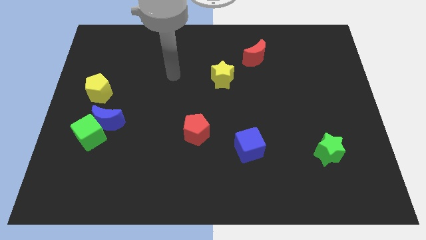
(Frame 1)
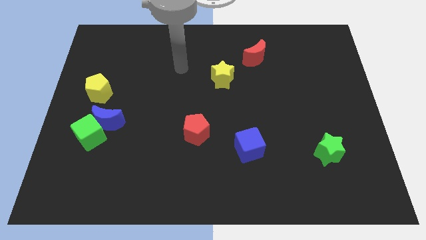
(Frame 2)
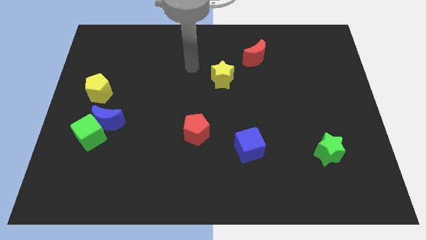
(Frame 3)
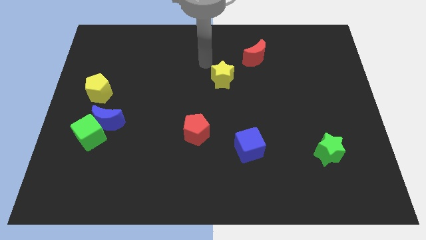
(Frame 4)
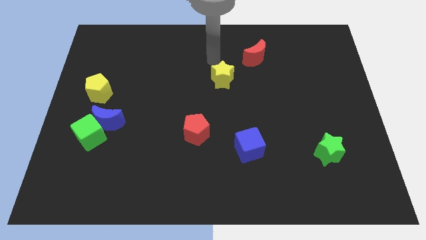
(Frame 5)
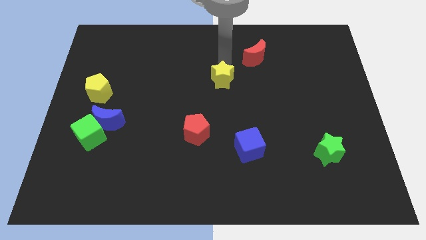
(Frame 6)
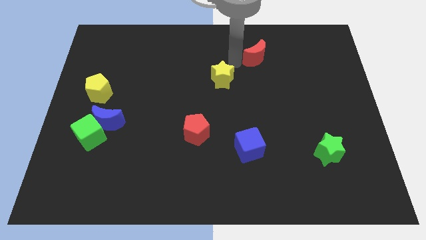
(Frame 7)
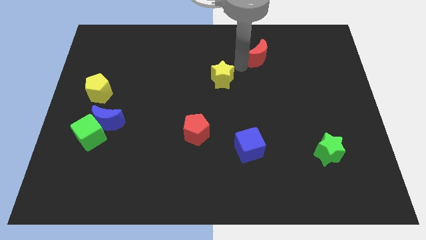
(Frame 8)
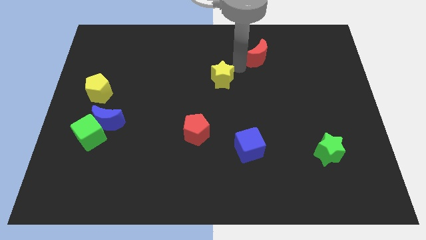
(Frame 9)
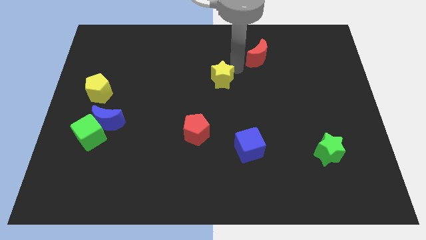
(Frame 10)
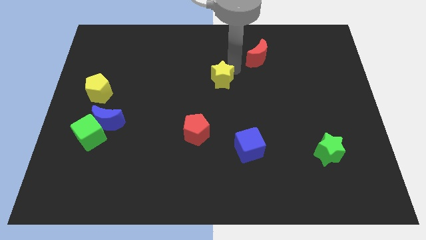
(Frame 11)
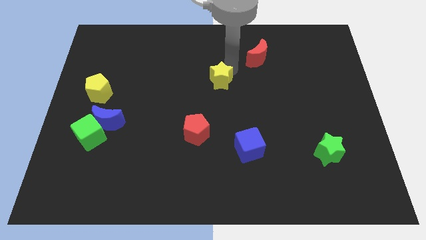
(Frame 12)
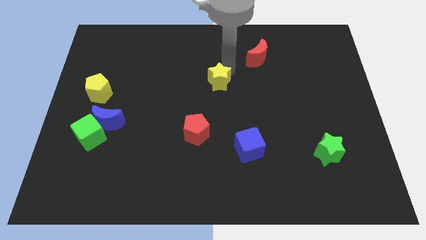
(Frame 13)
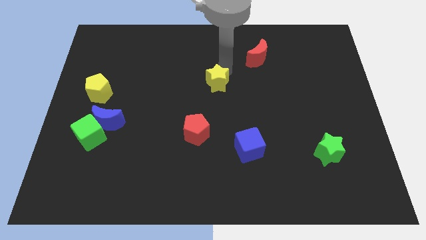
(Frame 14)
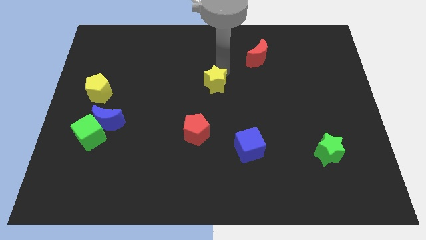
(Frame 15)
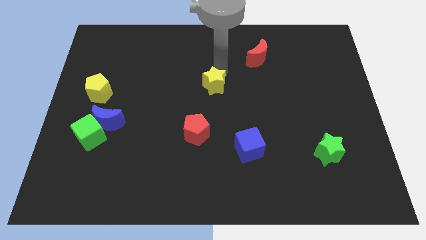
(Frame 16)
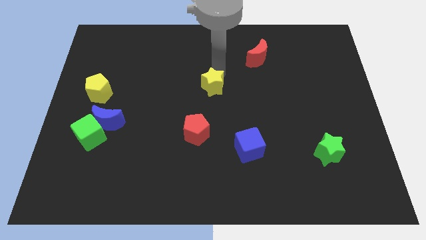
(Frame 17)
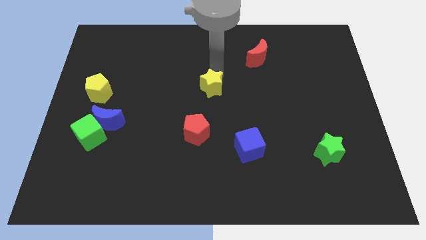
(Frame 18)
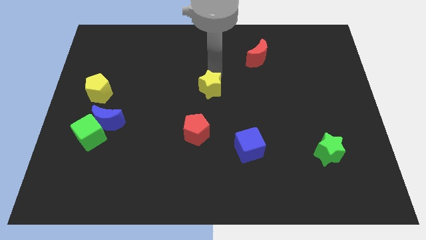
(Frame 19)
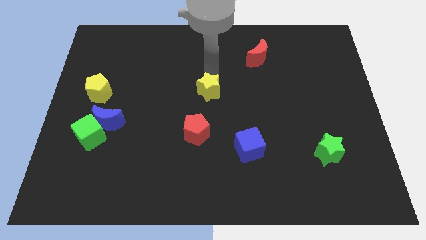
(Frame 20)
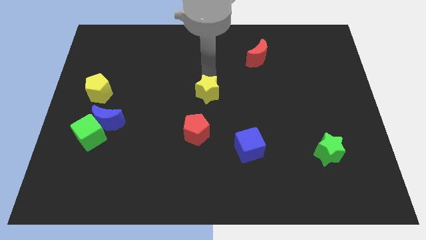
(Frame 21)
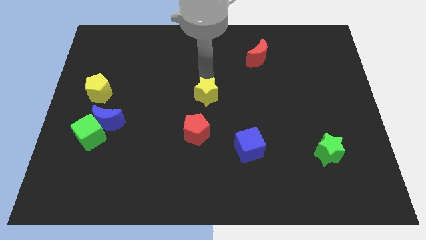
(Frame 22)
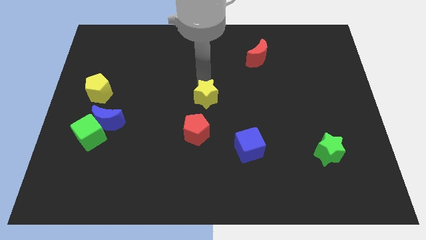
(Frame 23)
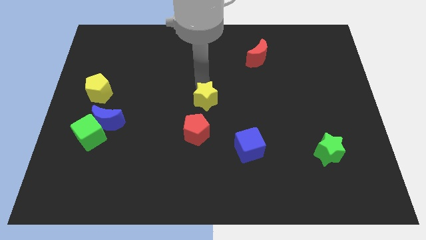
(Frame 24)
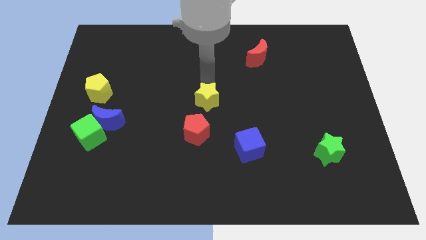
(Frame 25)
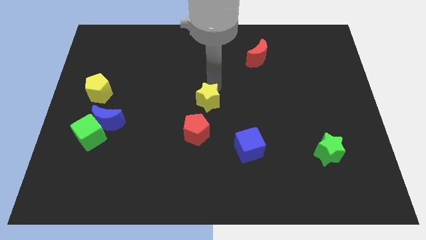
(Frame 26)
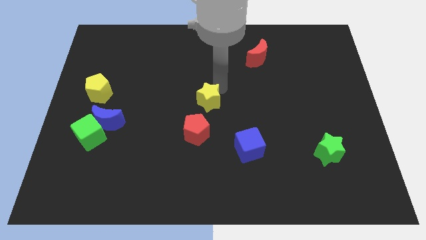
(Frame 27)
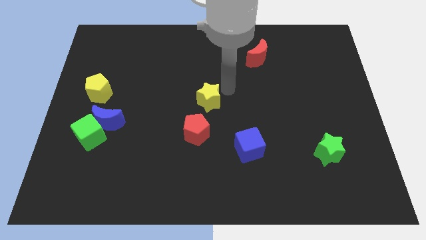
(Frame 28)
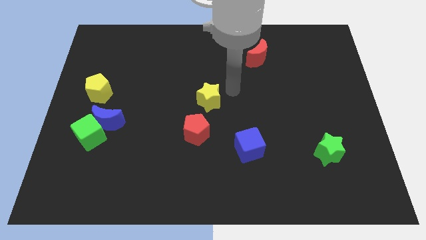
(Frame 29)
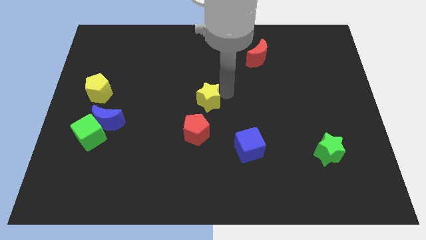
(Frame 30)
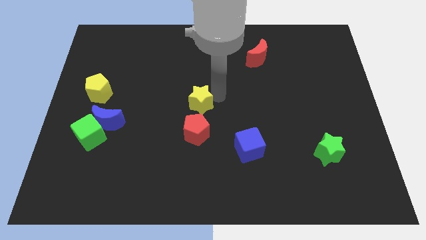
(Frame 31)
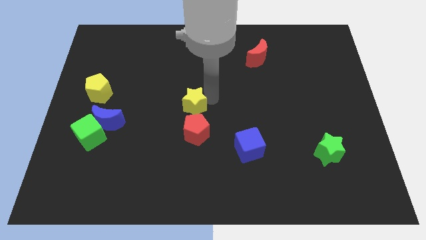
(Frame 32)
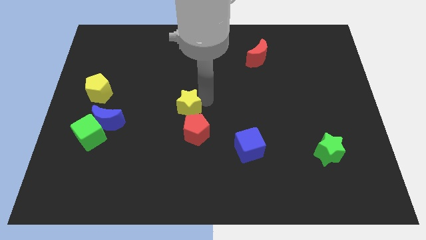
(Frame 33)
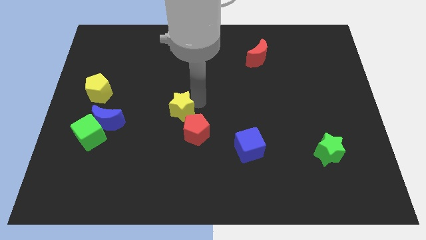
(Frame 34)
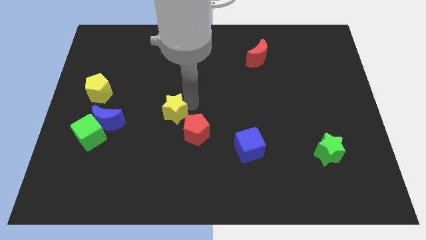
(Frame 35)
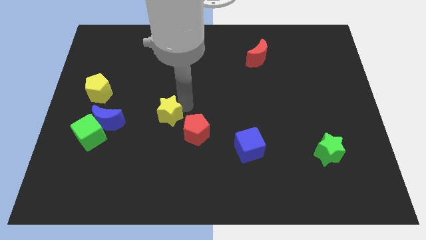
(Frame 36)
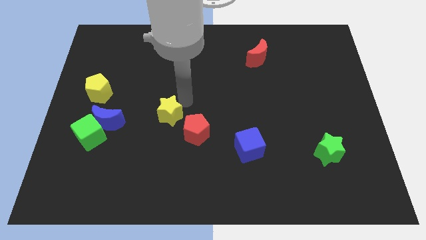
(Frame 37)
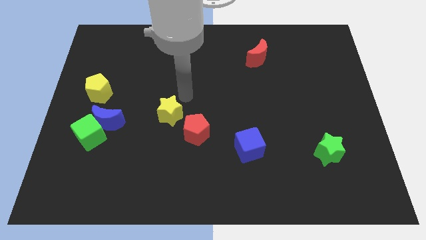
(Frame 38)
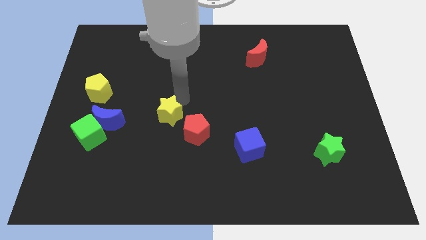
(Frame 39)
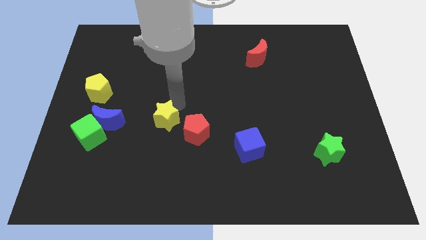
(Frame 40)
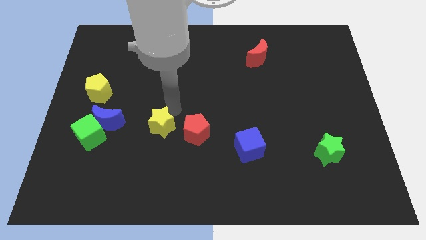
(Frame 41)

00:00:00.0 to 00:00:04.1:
push the yellow star diagonally downwards and left

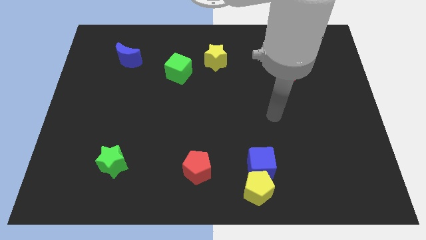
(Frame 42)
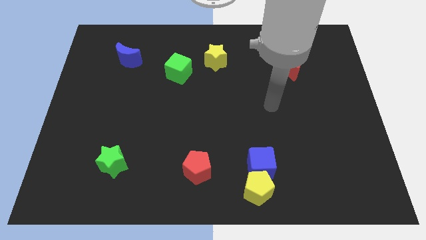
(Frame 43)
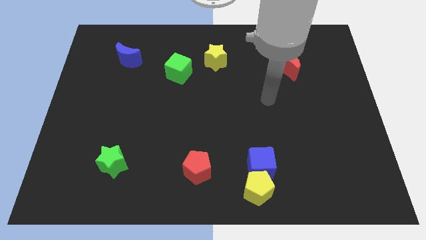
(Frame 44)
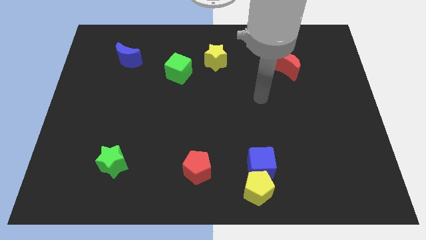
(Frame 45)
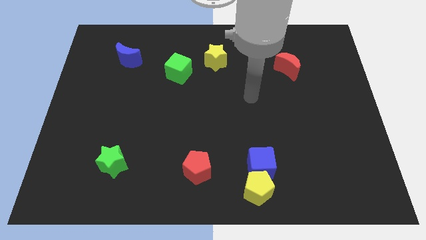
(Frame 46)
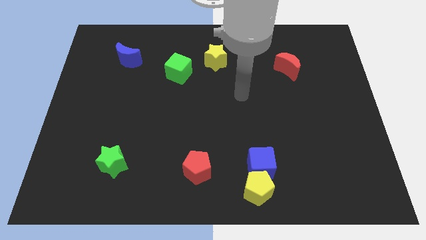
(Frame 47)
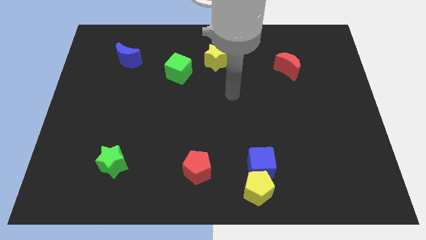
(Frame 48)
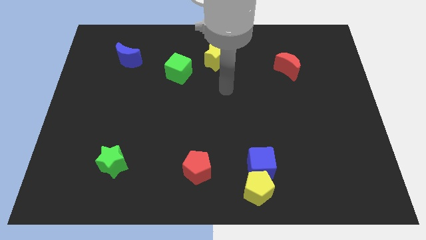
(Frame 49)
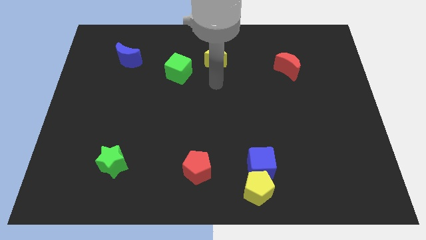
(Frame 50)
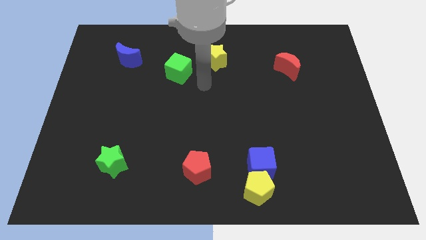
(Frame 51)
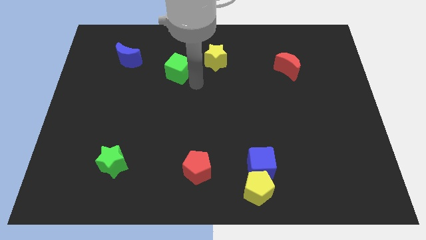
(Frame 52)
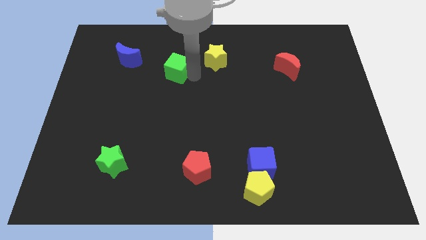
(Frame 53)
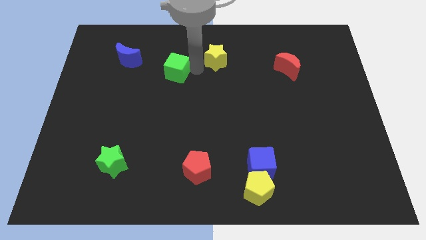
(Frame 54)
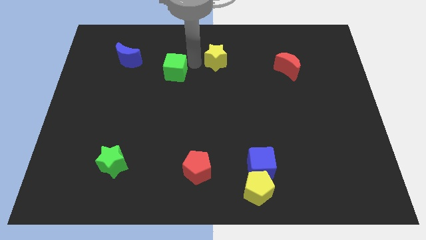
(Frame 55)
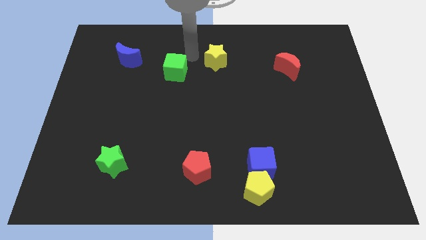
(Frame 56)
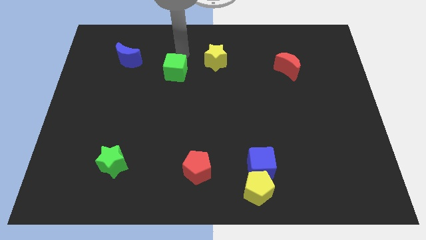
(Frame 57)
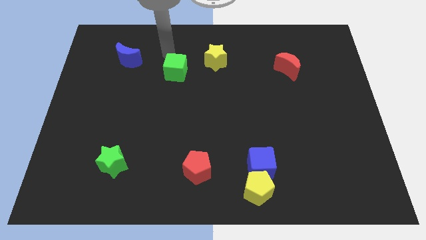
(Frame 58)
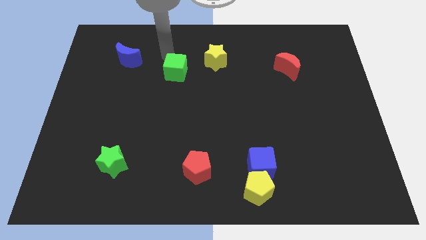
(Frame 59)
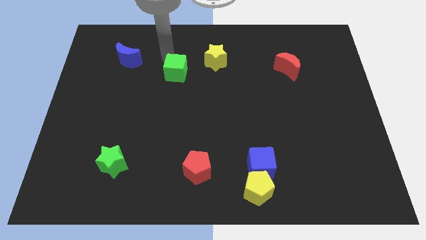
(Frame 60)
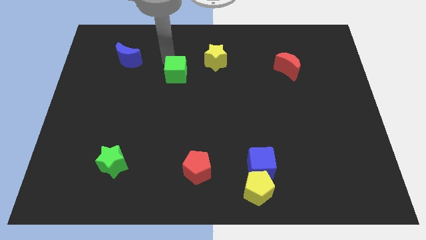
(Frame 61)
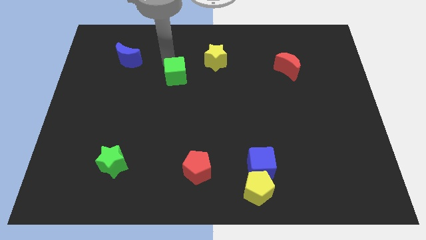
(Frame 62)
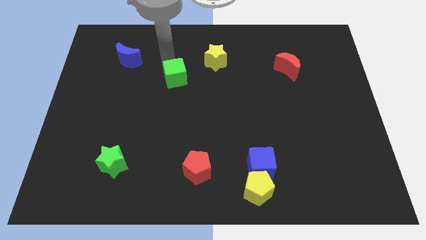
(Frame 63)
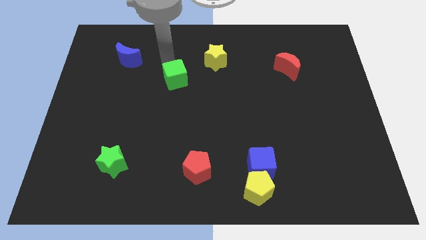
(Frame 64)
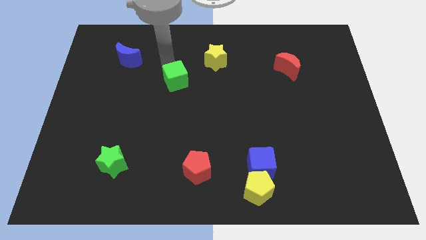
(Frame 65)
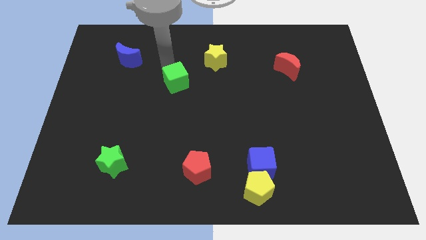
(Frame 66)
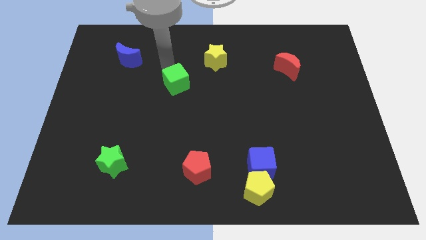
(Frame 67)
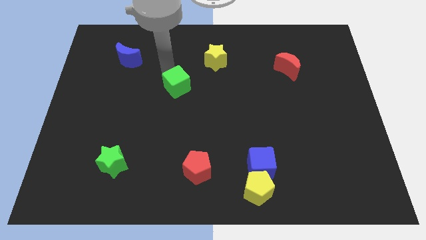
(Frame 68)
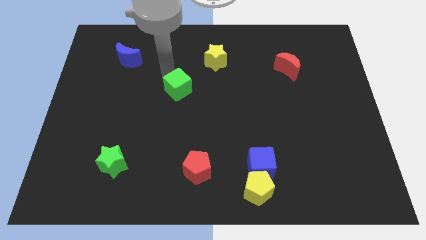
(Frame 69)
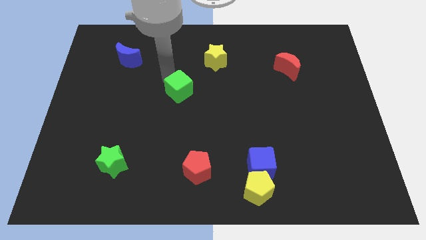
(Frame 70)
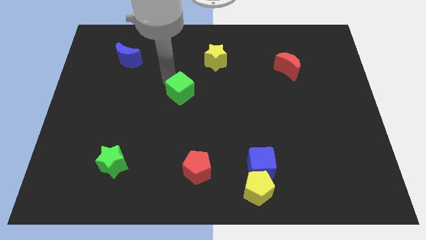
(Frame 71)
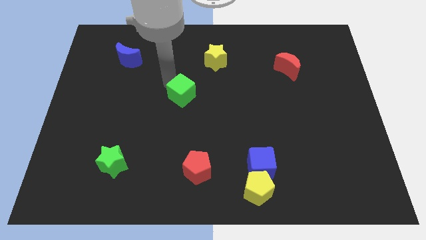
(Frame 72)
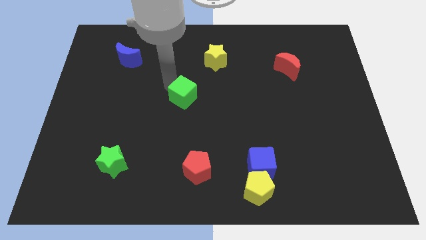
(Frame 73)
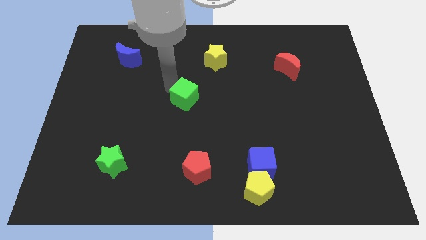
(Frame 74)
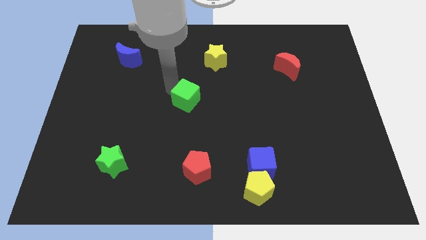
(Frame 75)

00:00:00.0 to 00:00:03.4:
slightly move the green cube downwards and to the right diagonally

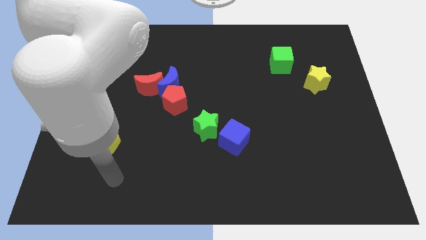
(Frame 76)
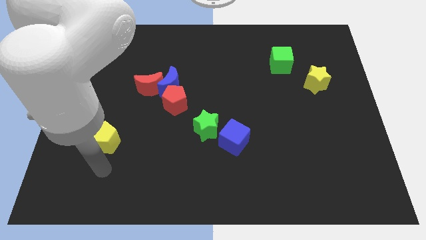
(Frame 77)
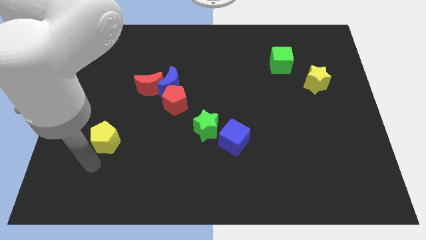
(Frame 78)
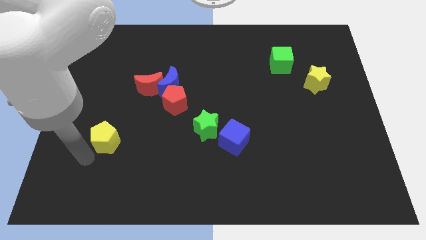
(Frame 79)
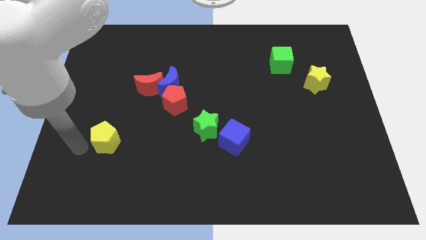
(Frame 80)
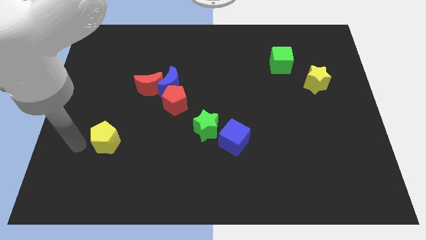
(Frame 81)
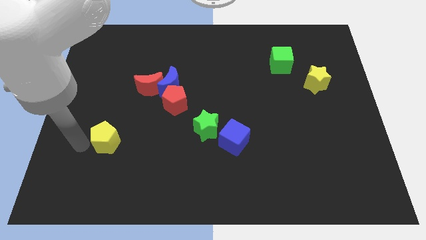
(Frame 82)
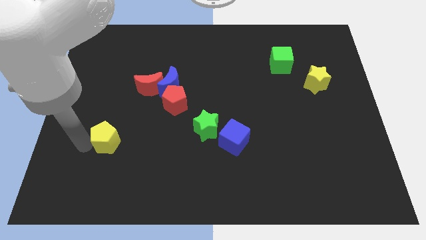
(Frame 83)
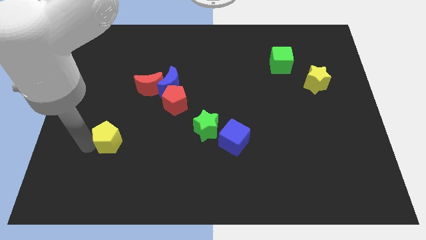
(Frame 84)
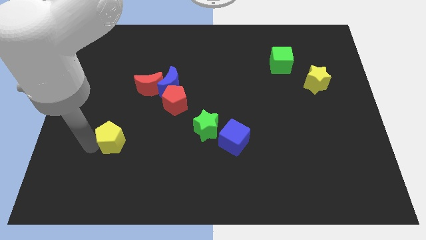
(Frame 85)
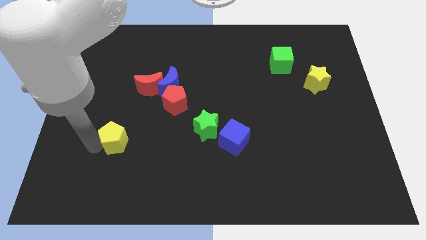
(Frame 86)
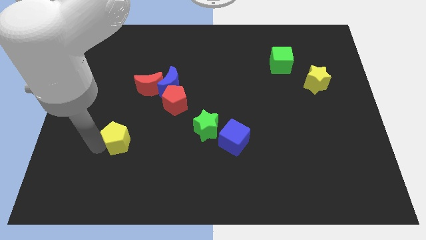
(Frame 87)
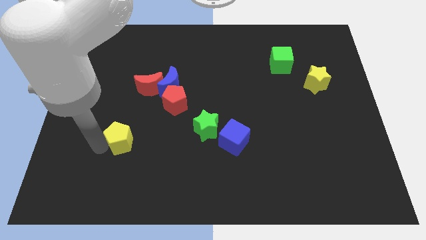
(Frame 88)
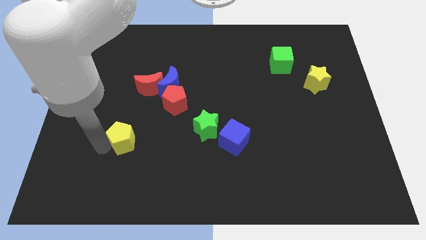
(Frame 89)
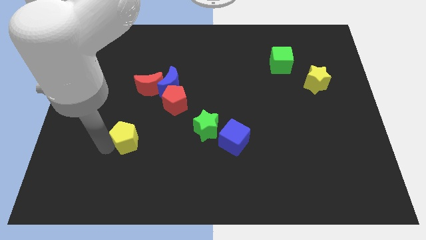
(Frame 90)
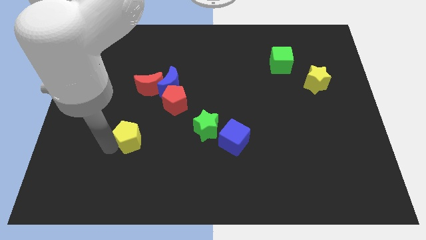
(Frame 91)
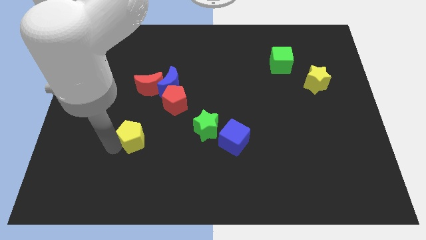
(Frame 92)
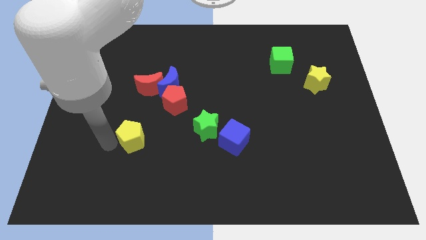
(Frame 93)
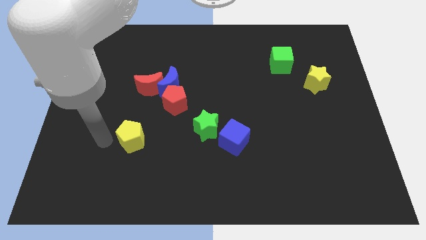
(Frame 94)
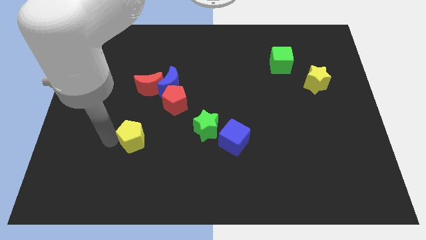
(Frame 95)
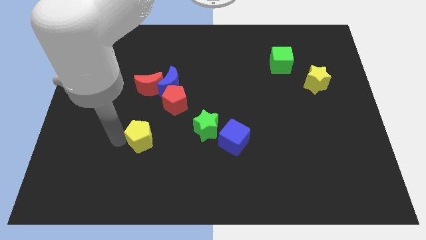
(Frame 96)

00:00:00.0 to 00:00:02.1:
move the yellow pentagon somewhat to the right
